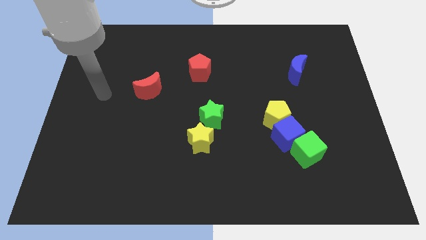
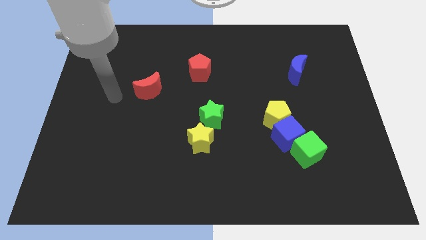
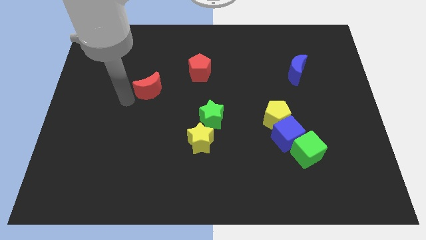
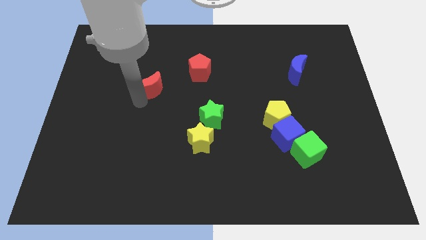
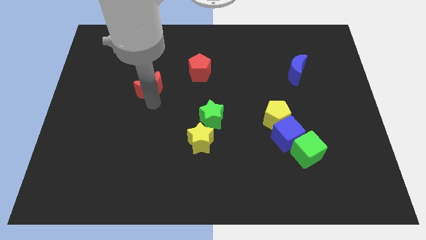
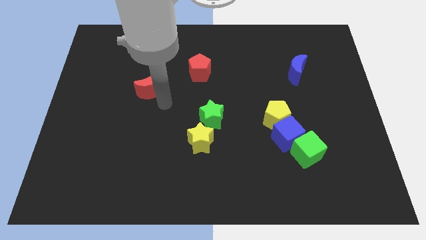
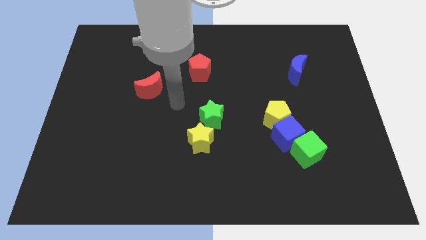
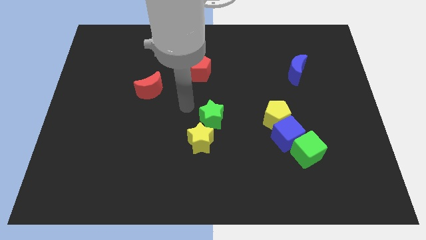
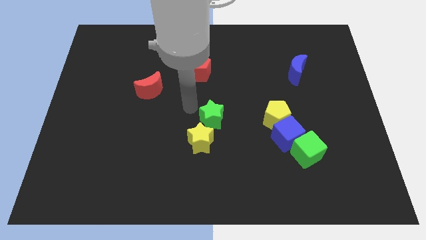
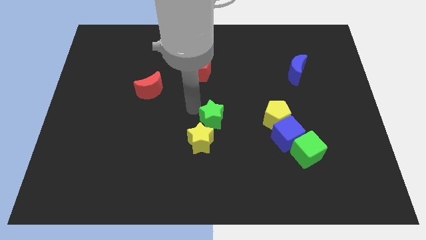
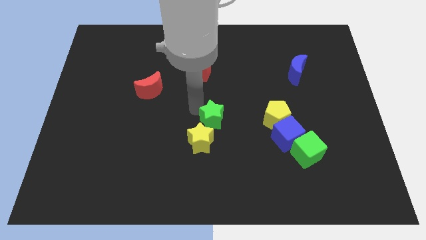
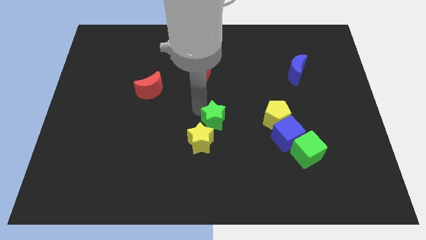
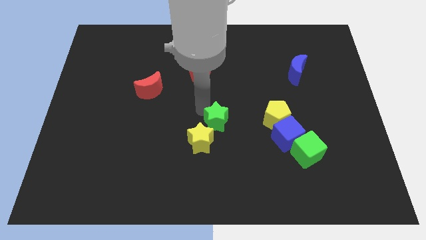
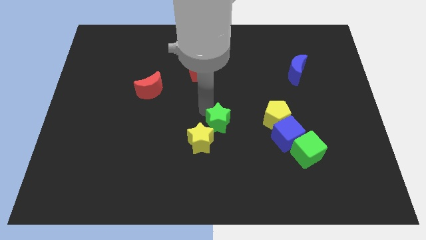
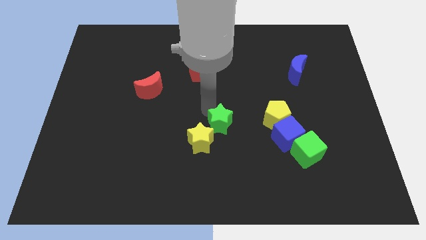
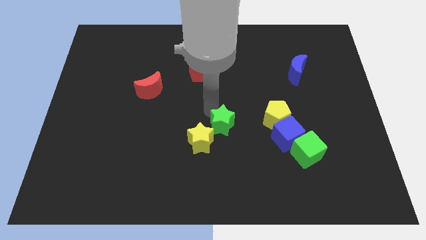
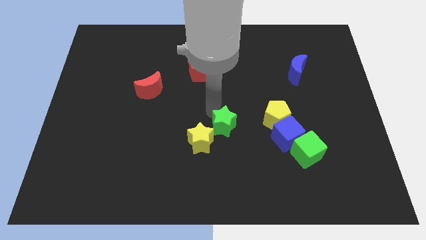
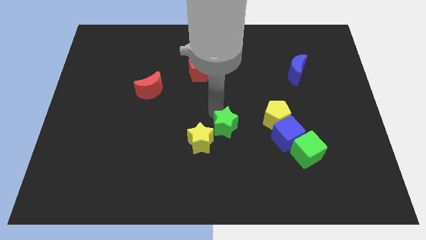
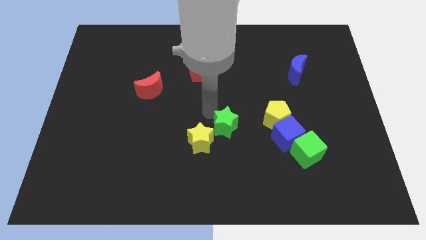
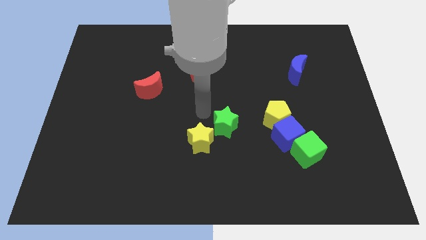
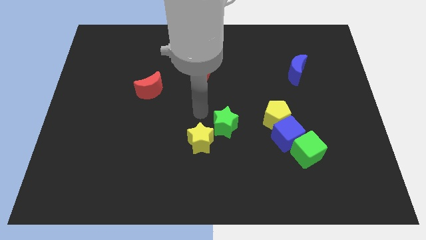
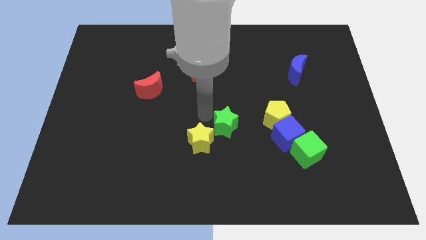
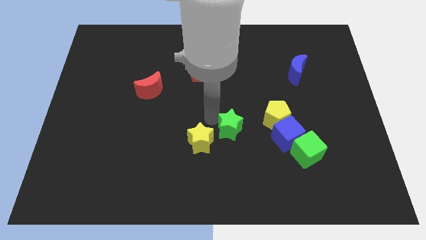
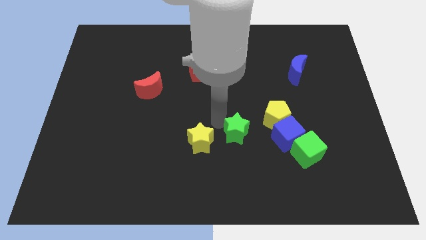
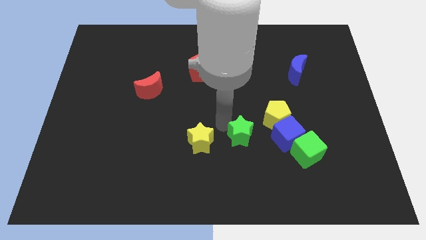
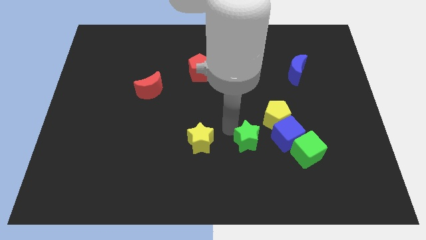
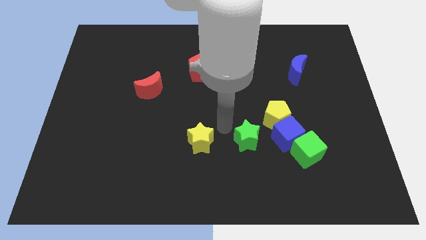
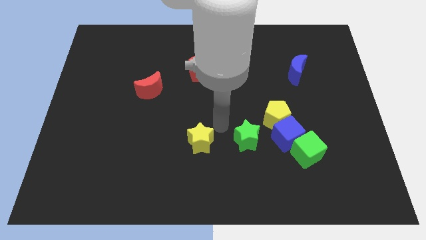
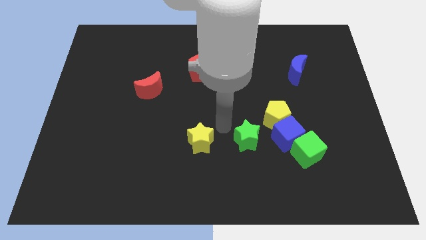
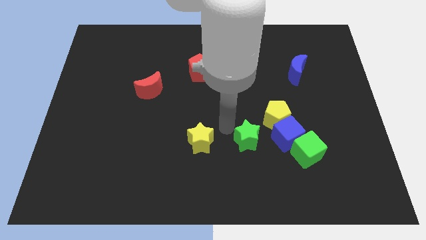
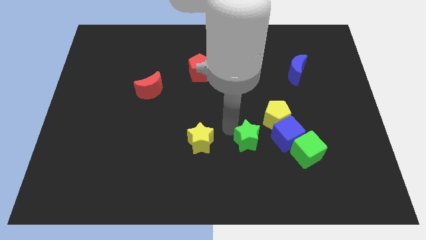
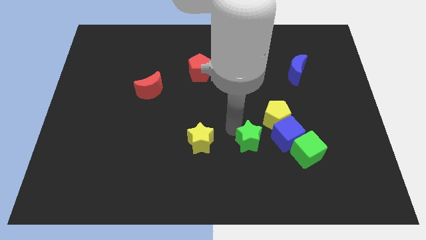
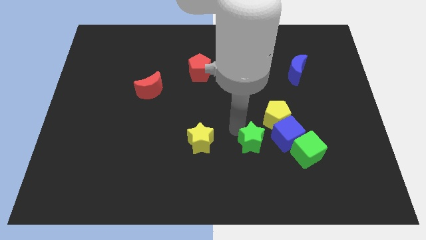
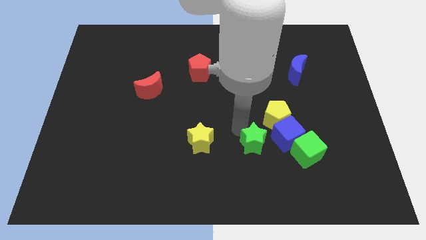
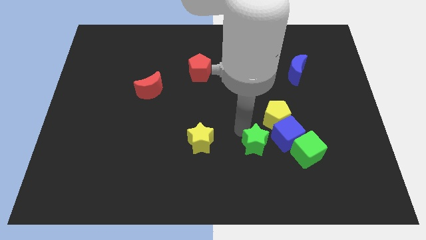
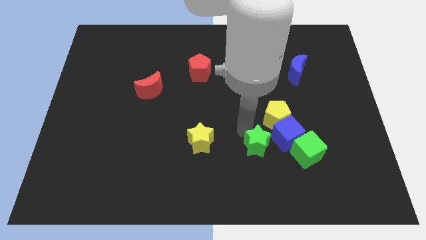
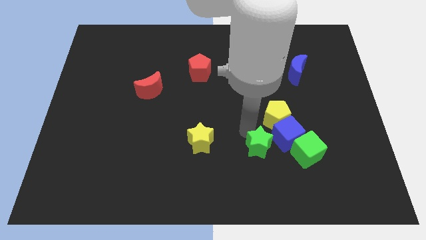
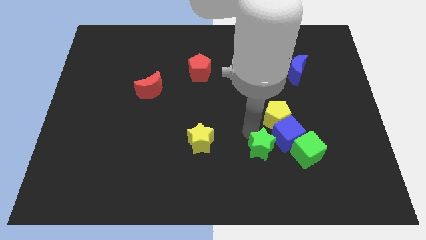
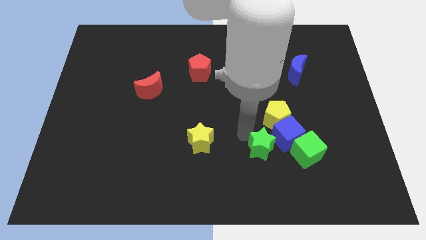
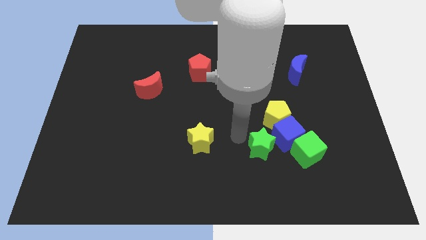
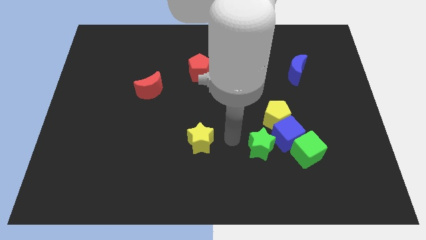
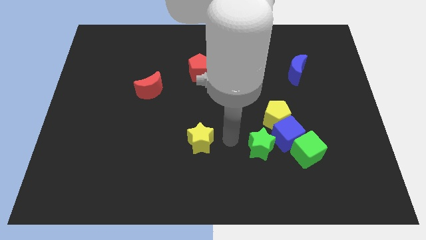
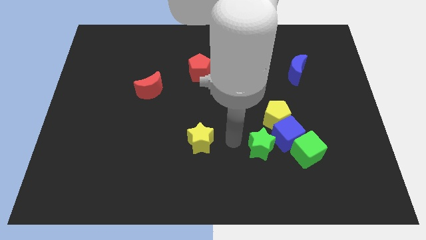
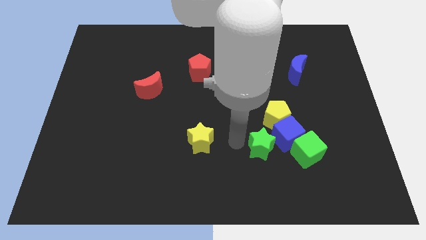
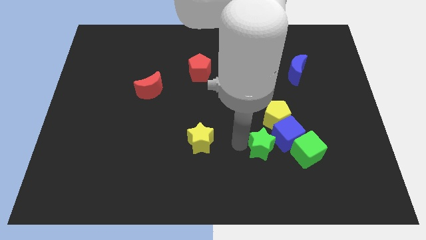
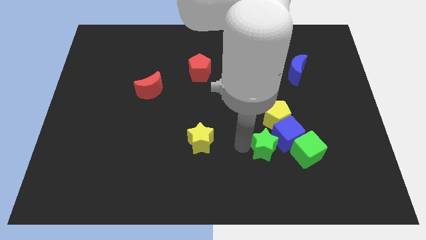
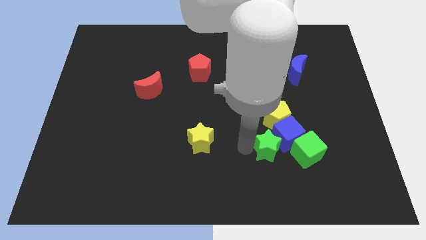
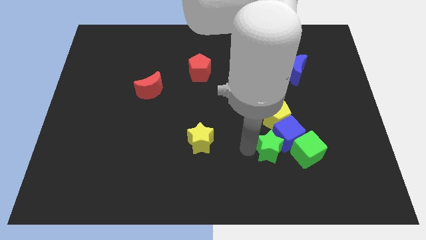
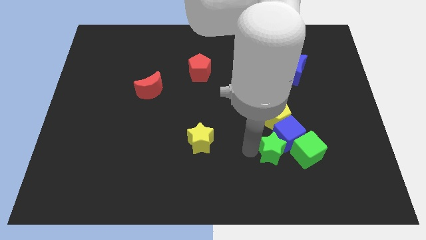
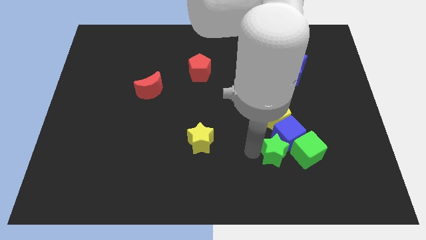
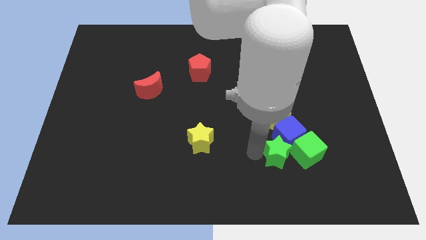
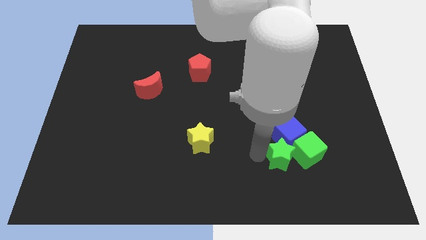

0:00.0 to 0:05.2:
push the green star towards the green cube
